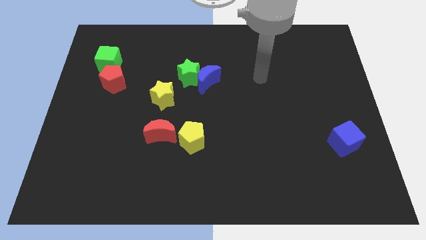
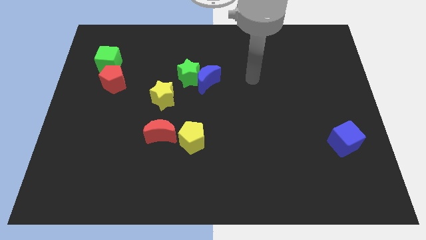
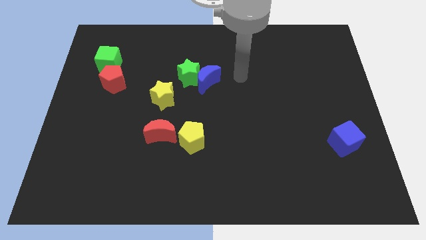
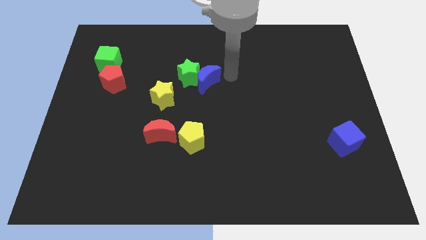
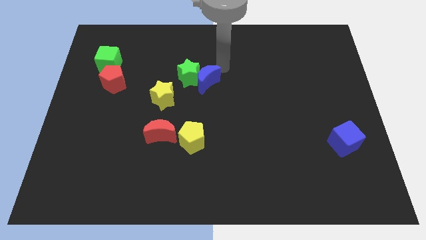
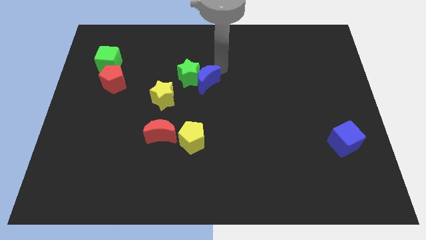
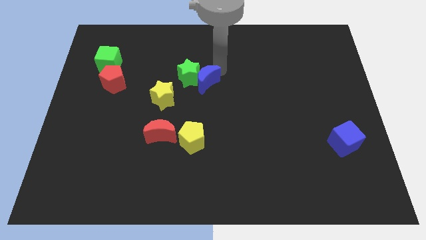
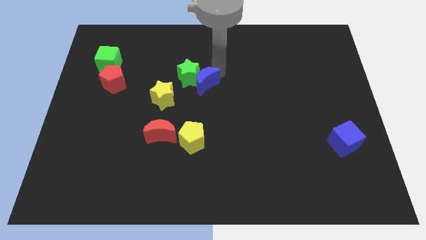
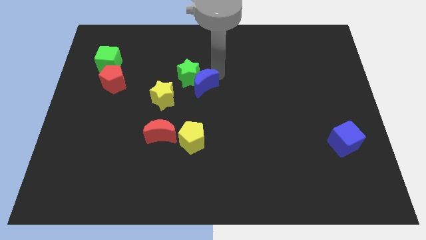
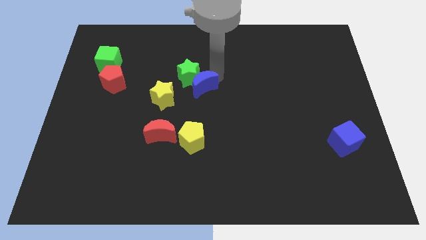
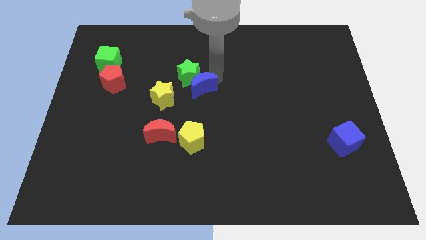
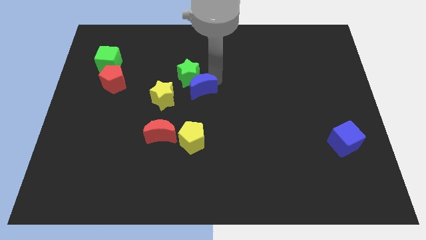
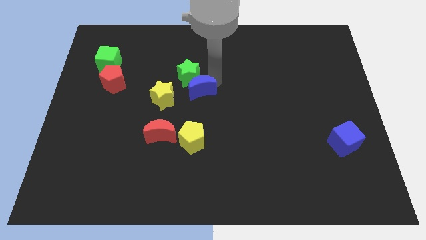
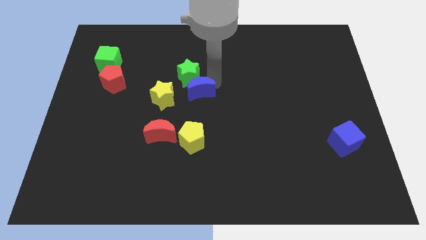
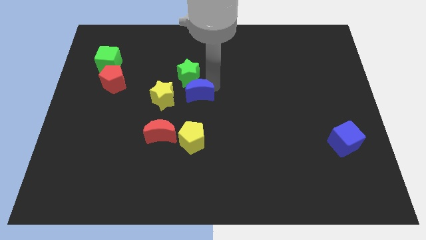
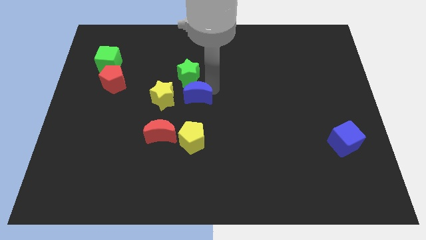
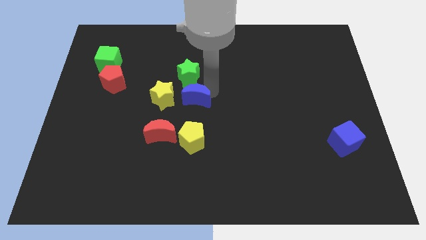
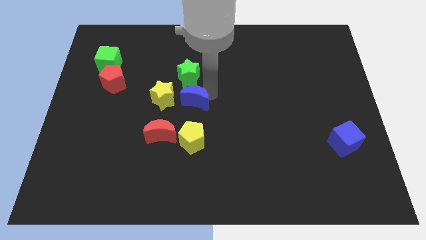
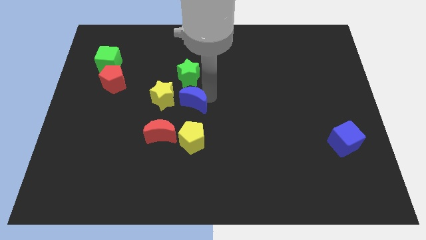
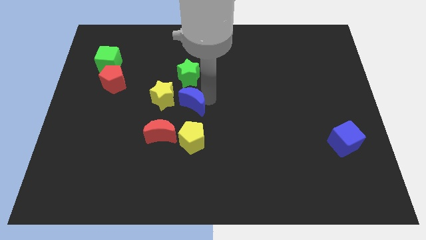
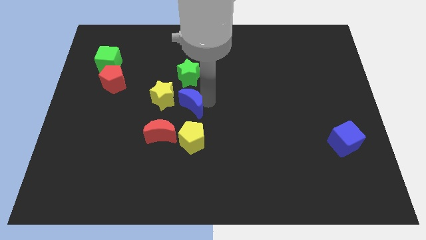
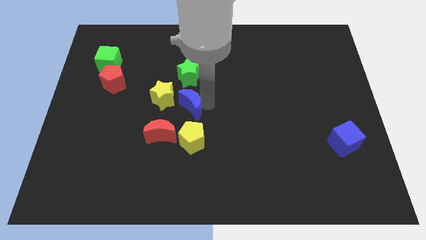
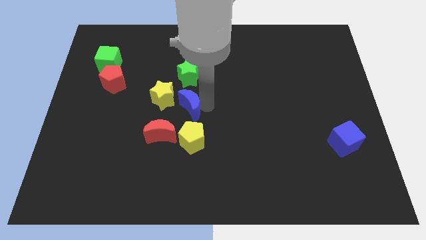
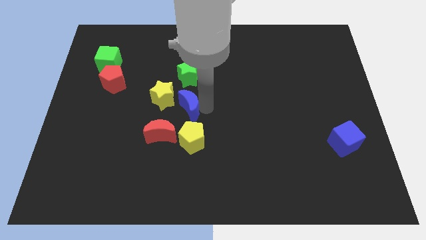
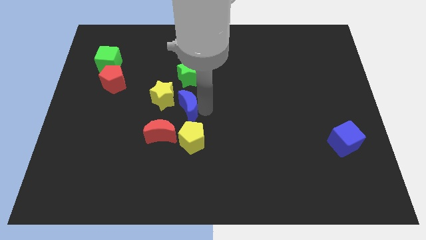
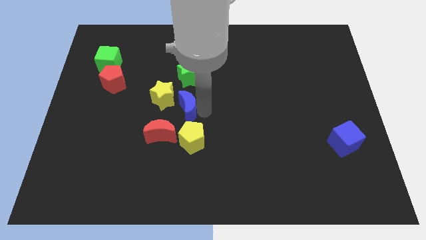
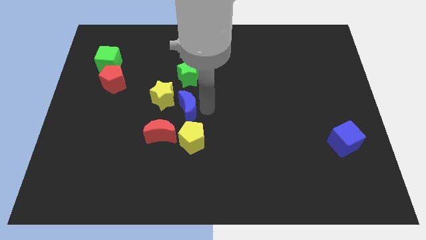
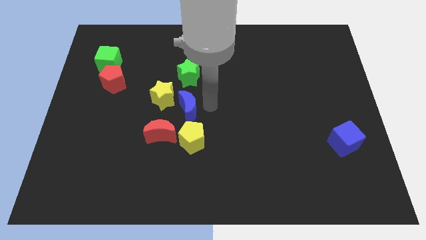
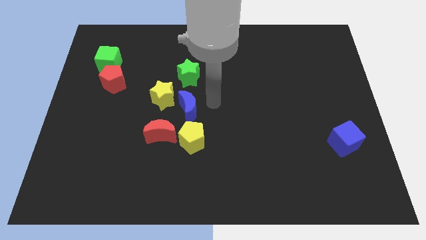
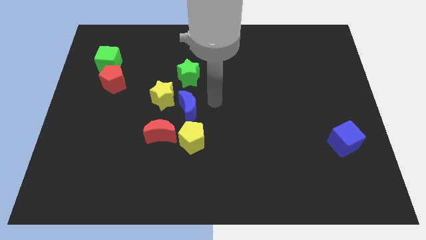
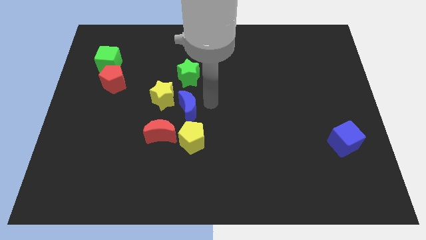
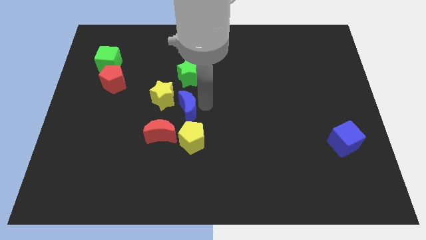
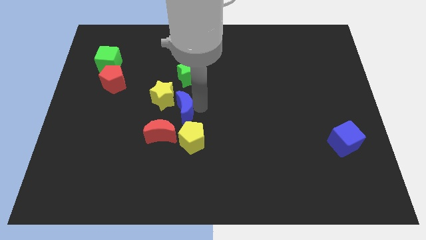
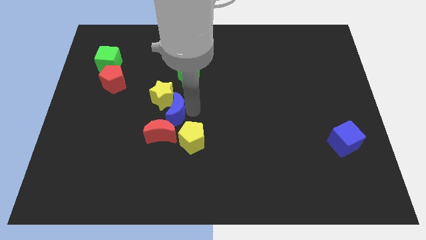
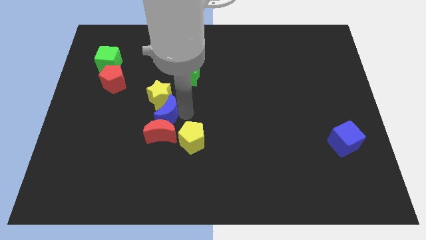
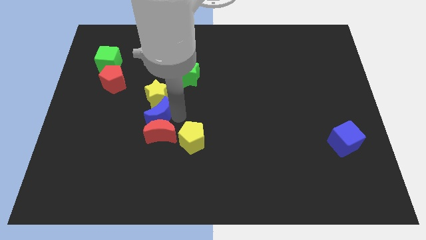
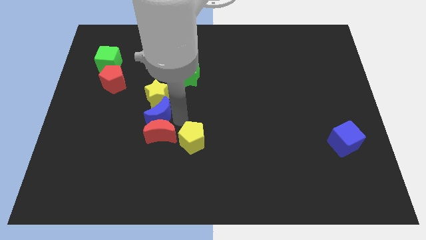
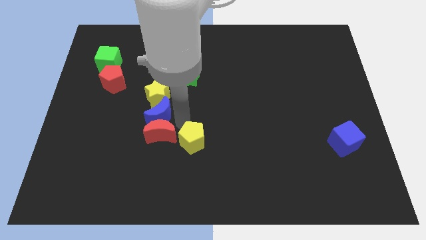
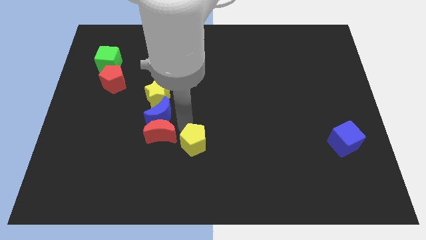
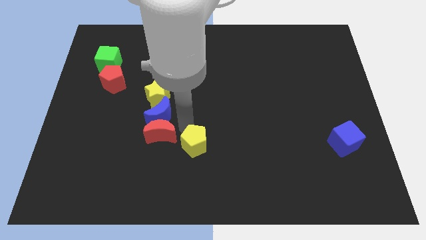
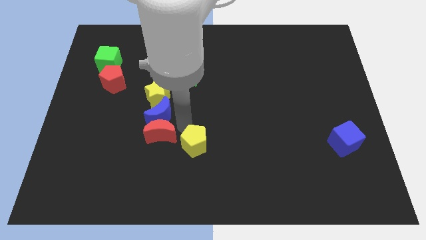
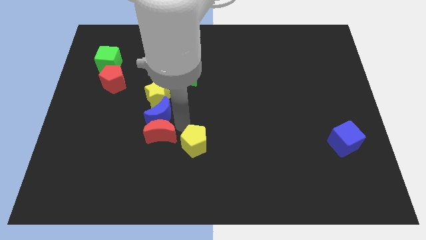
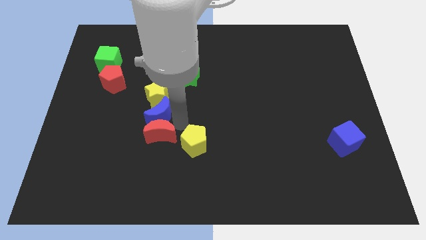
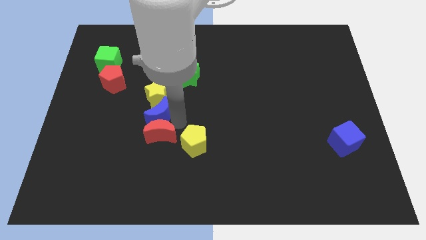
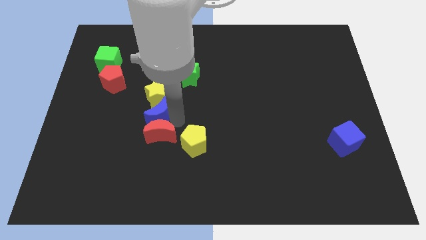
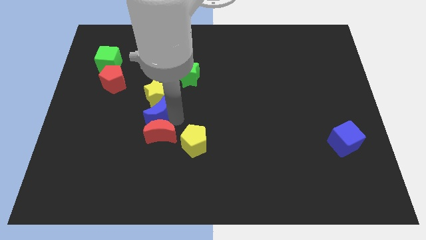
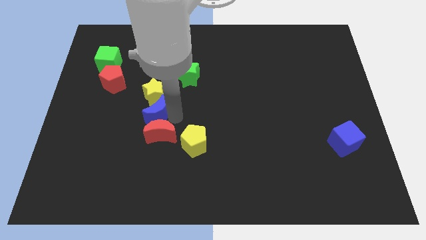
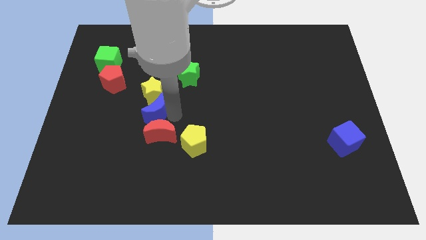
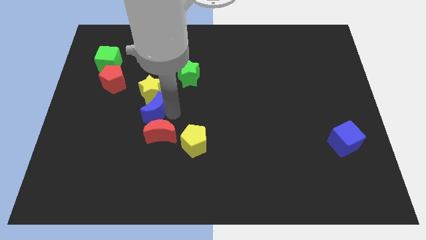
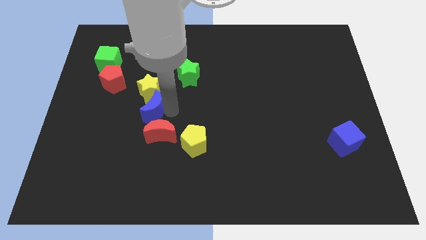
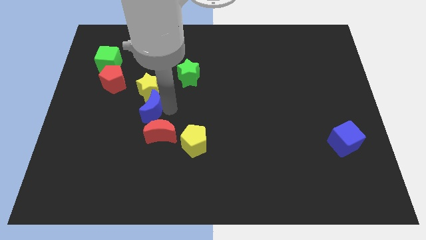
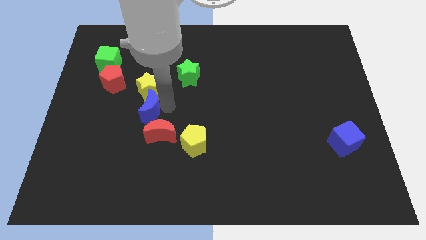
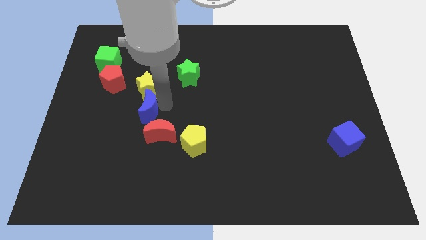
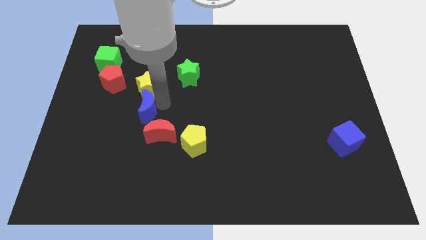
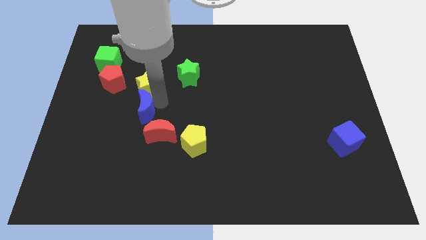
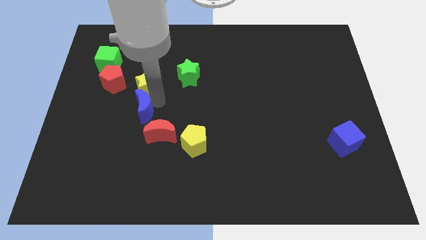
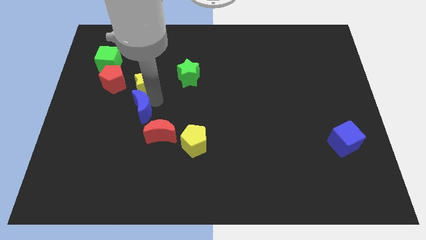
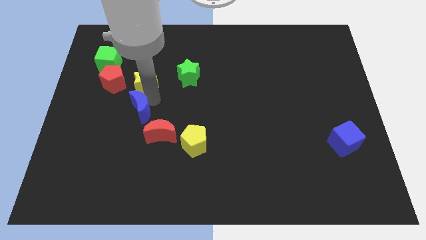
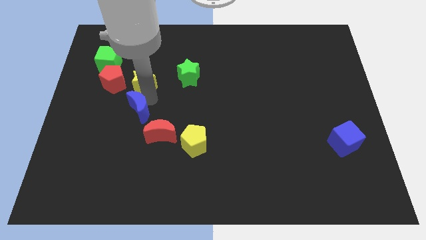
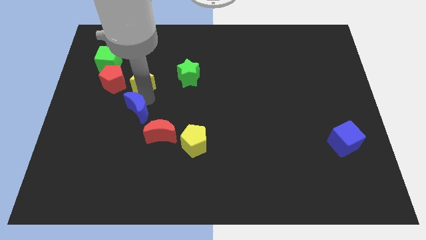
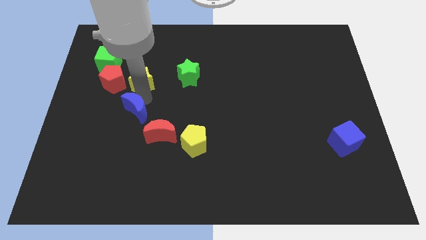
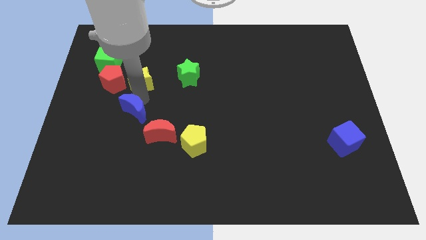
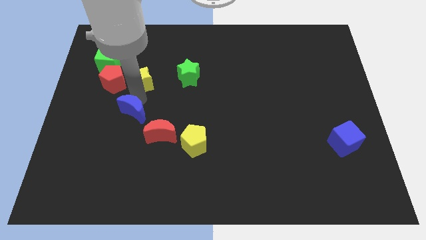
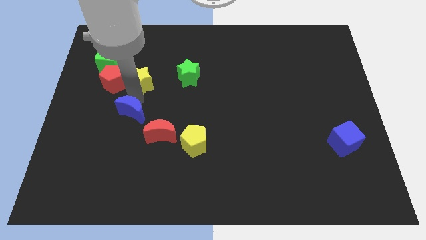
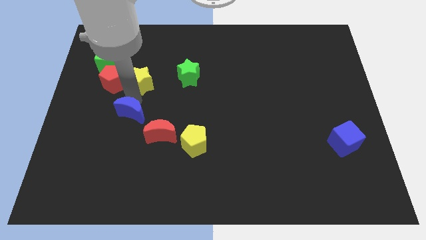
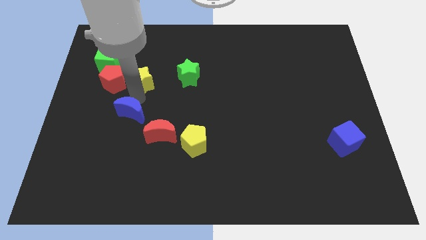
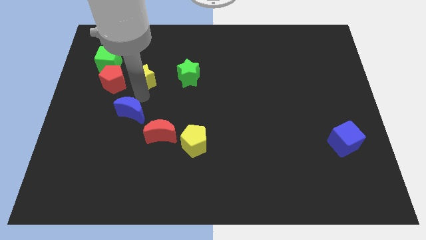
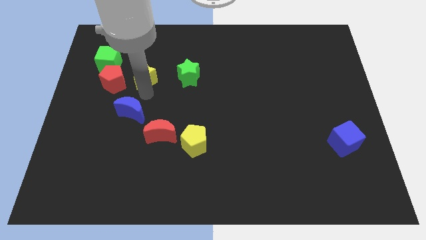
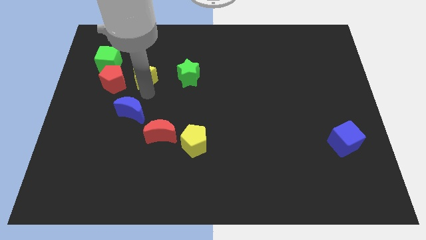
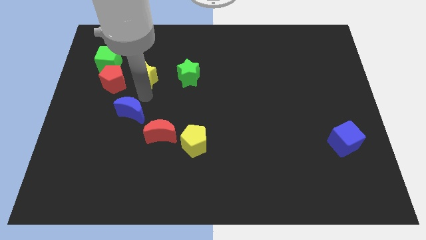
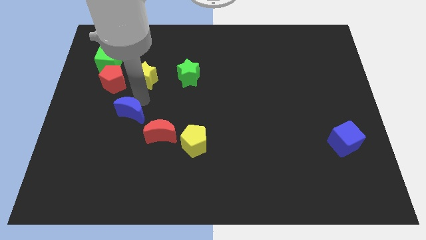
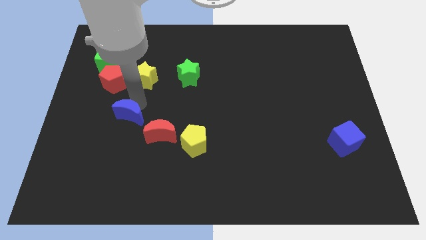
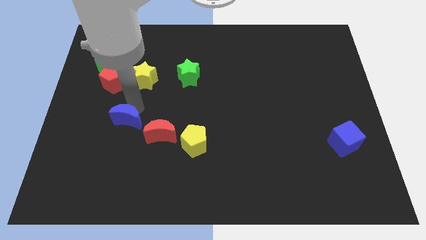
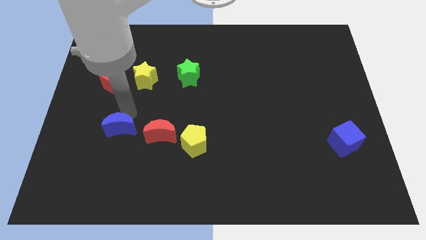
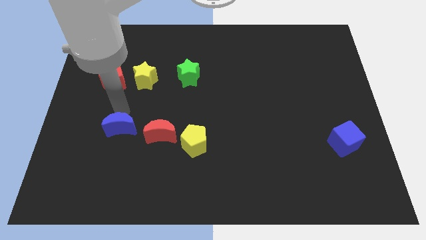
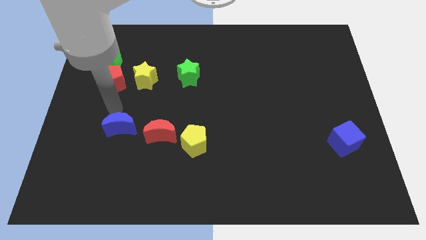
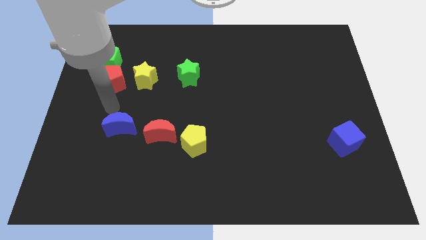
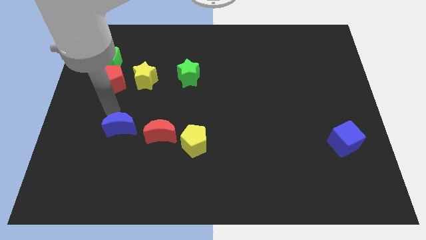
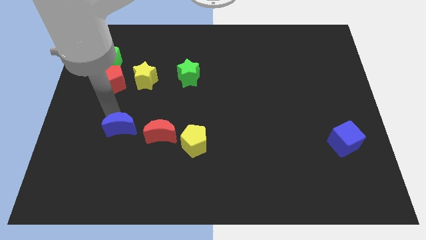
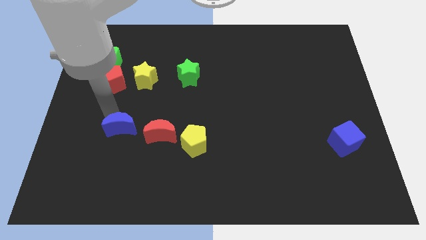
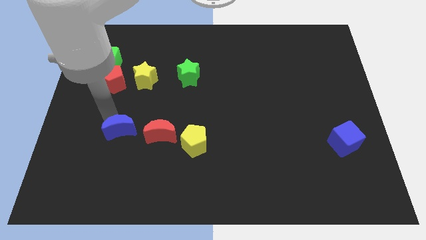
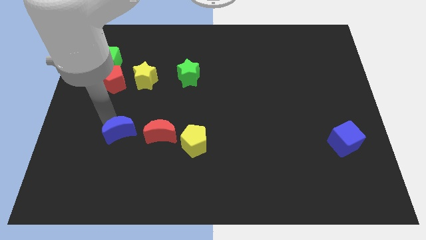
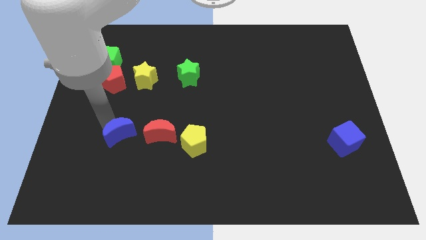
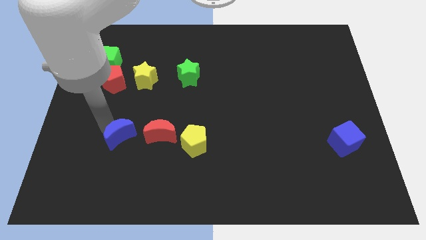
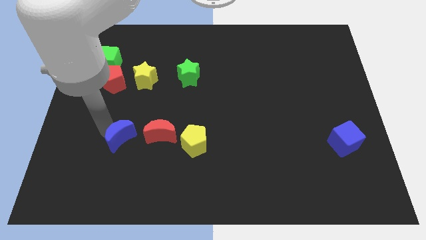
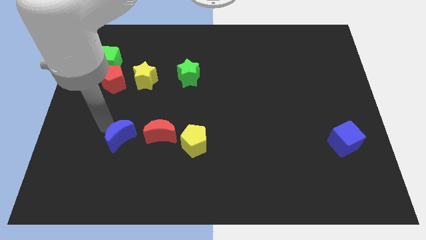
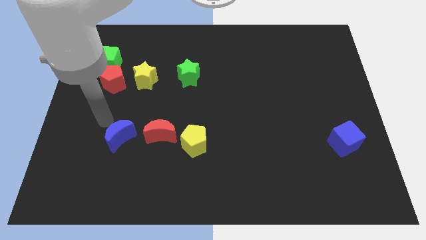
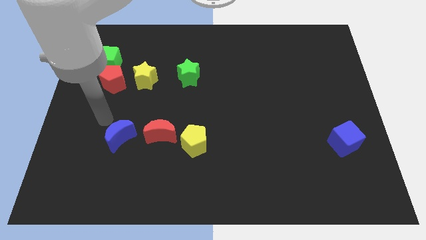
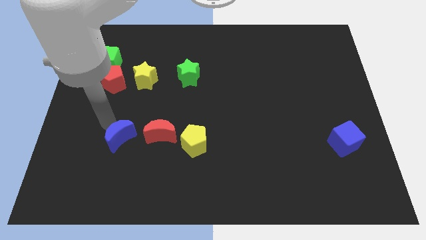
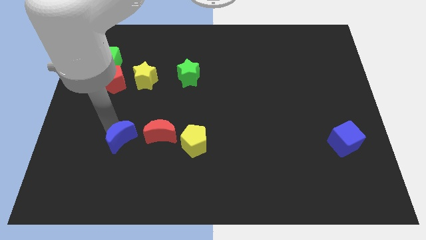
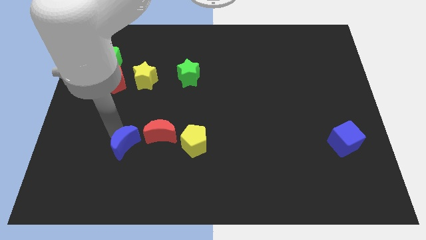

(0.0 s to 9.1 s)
move the blue moon to the bottom left of the red moon
